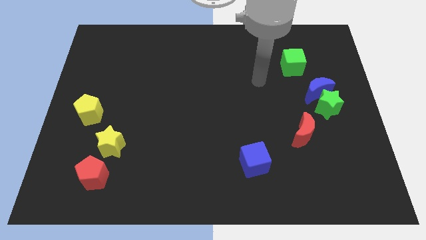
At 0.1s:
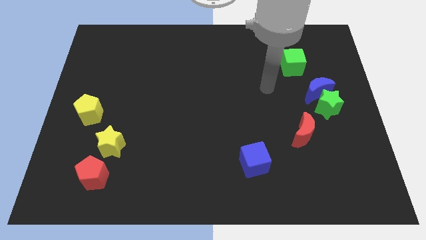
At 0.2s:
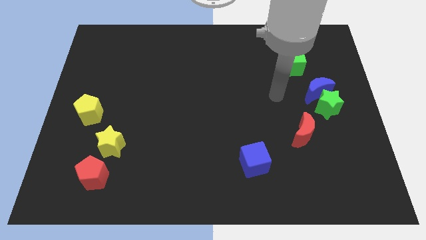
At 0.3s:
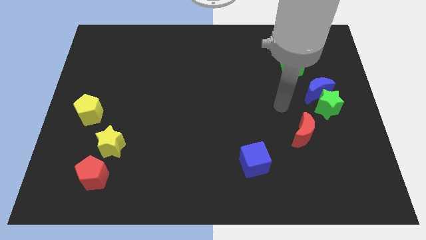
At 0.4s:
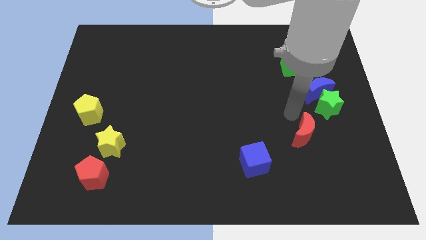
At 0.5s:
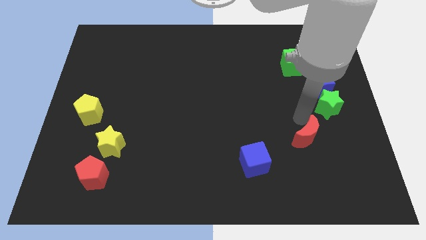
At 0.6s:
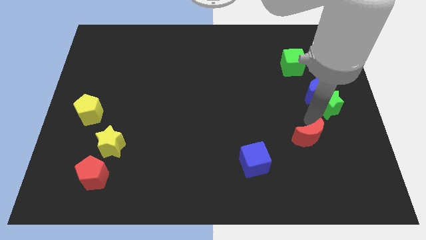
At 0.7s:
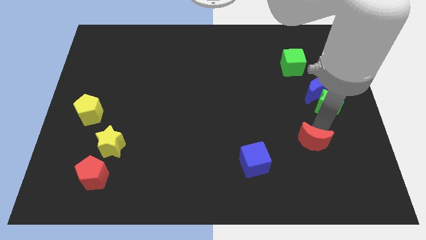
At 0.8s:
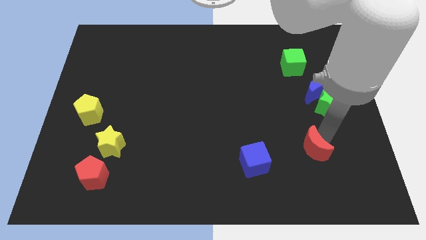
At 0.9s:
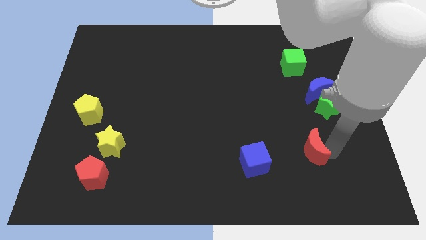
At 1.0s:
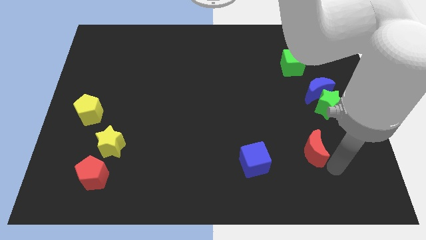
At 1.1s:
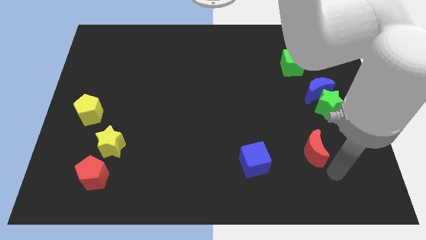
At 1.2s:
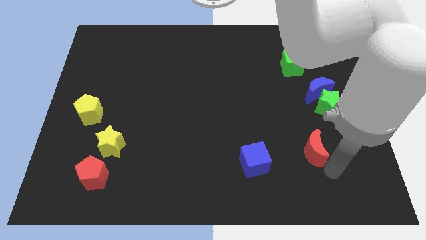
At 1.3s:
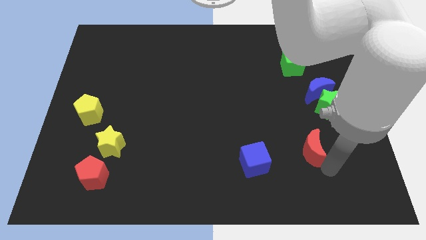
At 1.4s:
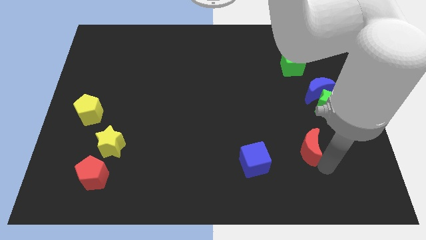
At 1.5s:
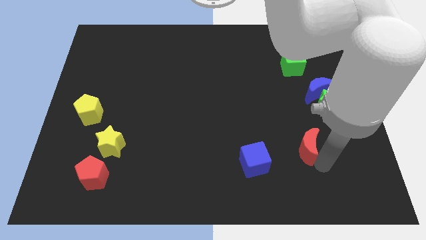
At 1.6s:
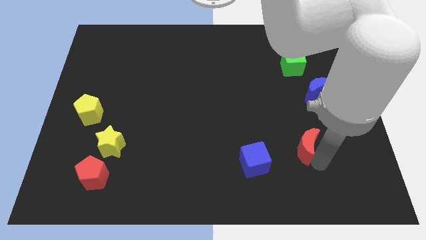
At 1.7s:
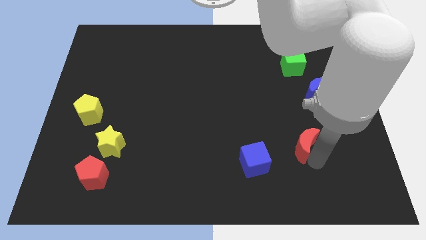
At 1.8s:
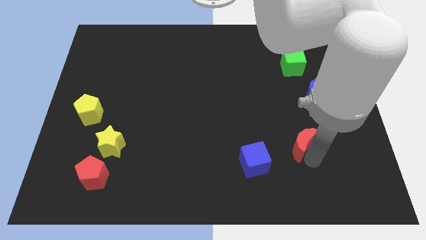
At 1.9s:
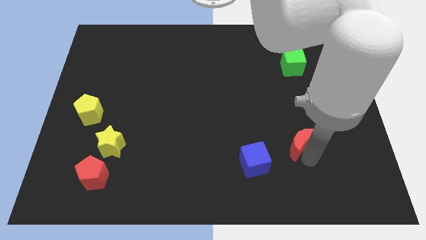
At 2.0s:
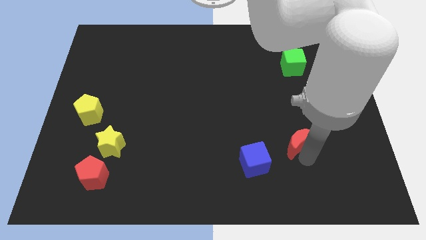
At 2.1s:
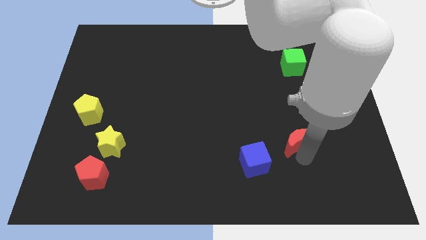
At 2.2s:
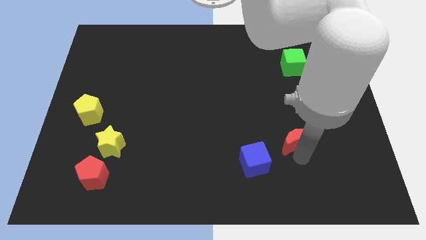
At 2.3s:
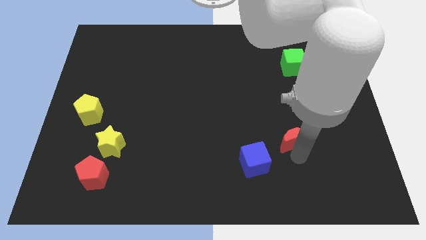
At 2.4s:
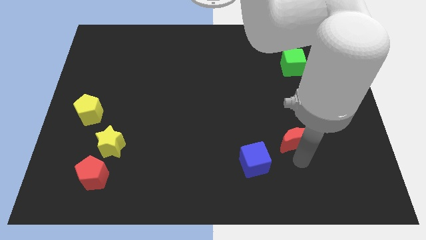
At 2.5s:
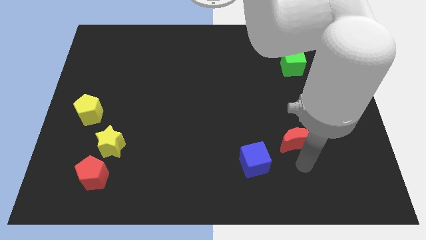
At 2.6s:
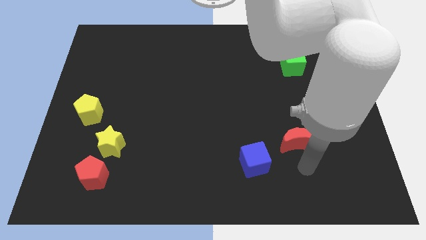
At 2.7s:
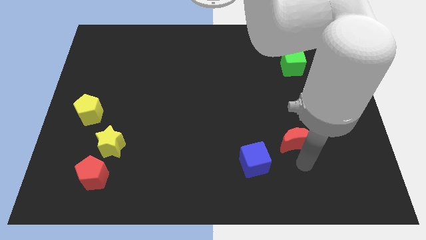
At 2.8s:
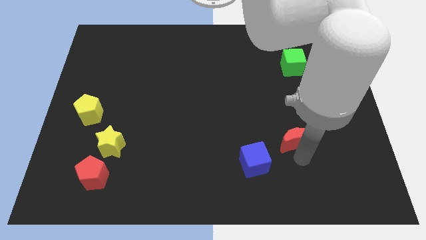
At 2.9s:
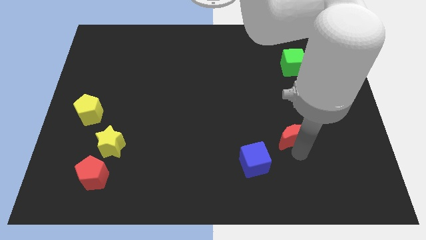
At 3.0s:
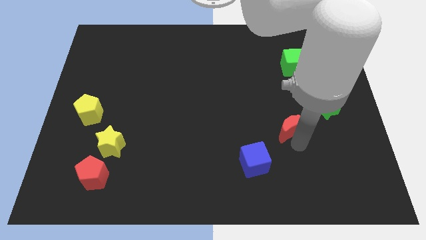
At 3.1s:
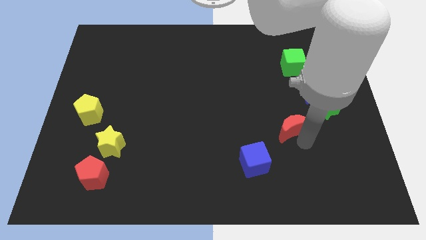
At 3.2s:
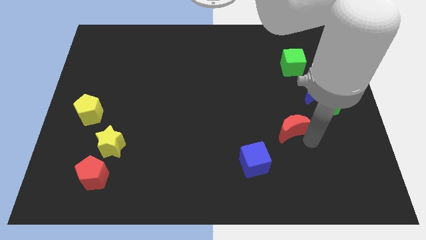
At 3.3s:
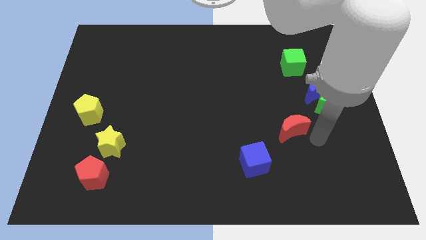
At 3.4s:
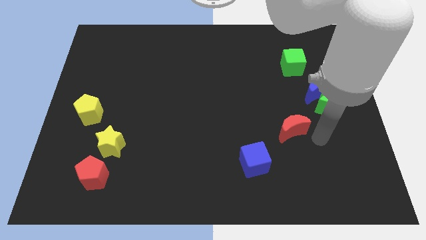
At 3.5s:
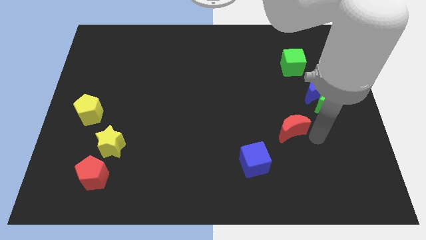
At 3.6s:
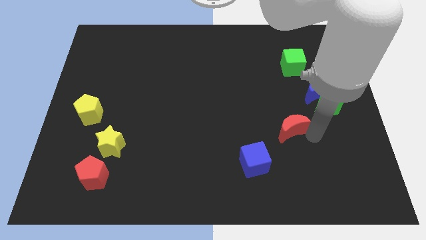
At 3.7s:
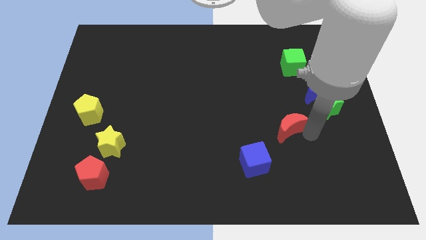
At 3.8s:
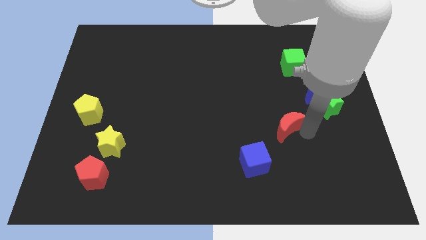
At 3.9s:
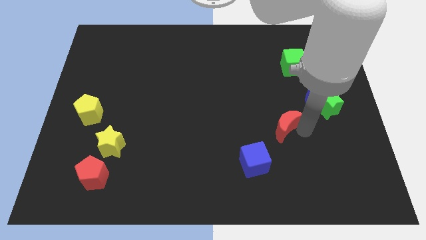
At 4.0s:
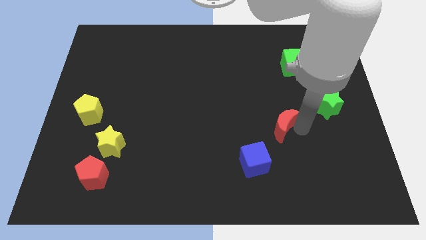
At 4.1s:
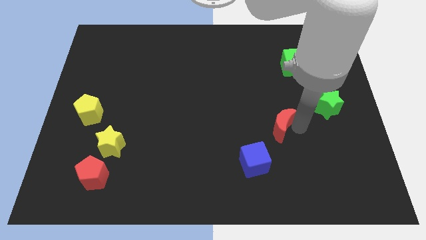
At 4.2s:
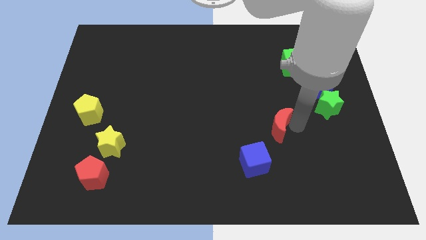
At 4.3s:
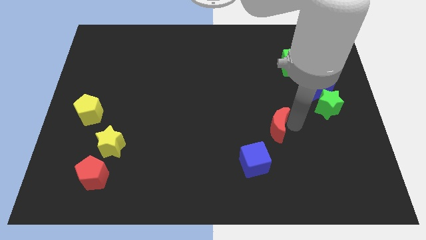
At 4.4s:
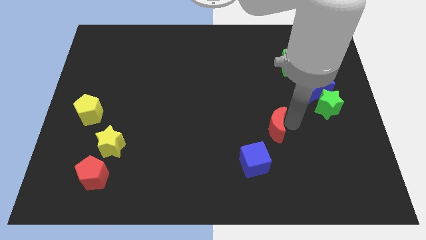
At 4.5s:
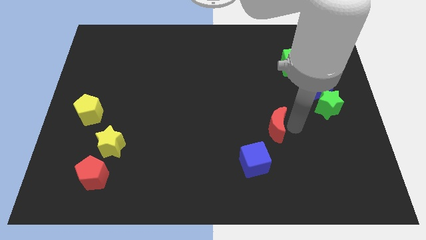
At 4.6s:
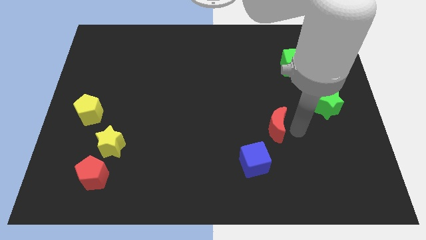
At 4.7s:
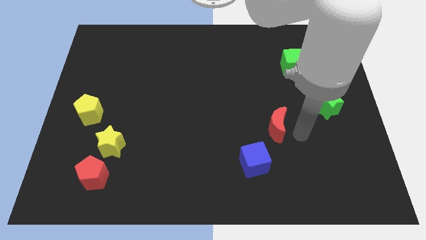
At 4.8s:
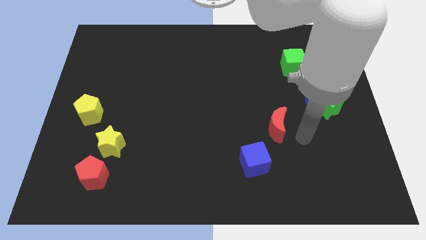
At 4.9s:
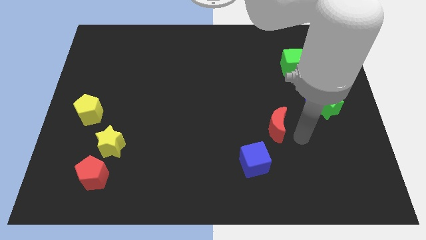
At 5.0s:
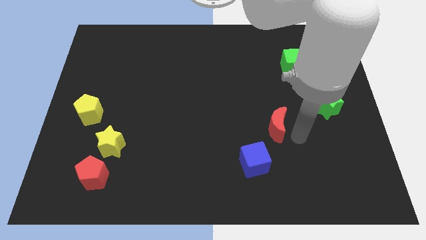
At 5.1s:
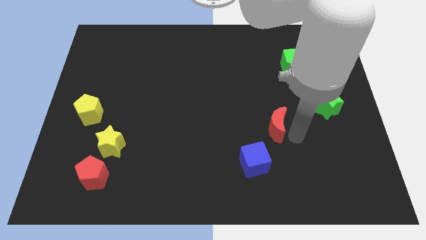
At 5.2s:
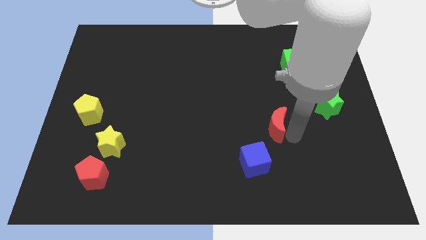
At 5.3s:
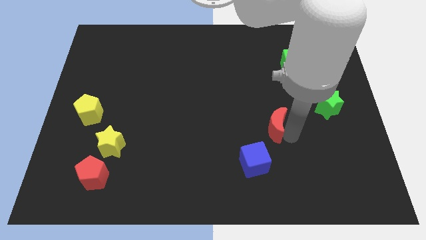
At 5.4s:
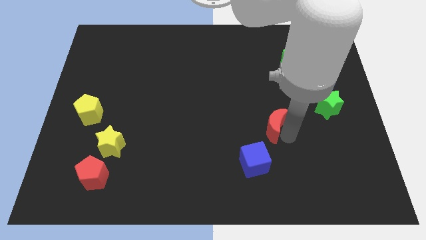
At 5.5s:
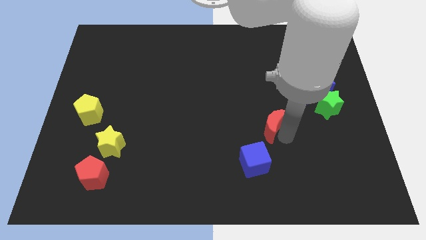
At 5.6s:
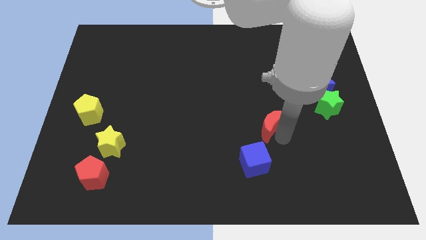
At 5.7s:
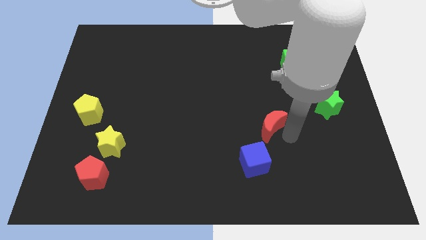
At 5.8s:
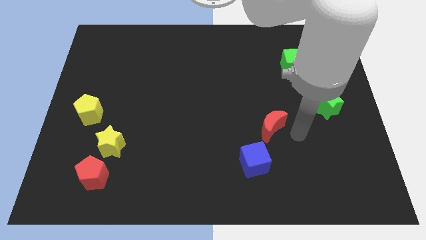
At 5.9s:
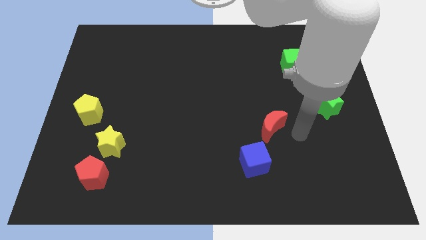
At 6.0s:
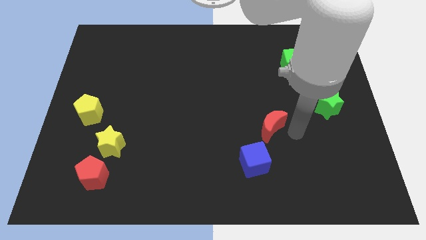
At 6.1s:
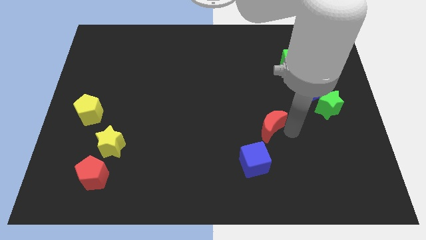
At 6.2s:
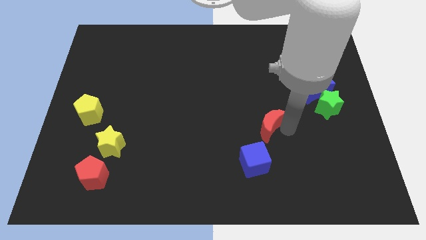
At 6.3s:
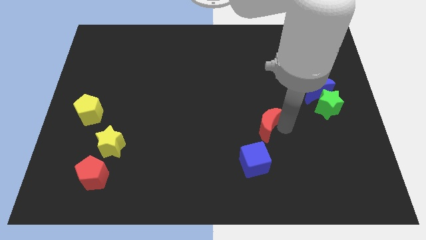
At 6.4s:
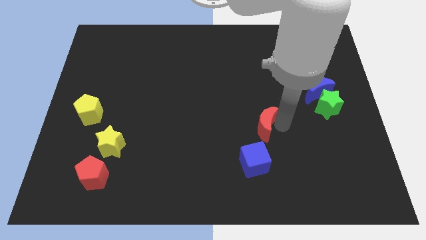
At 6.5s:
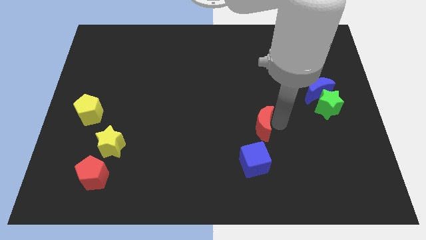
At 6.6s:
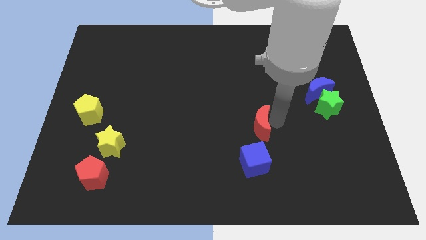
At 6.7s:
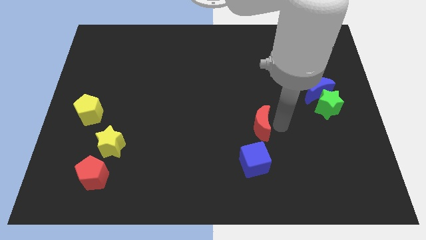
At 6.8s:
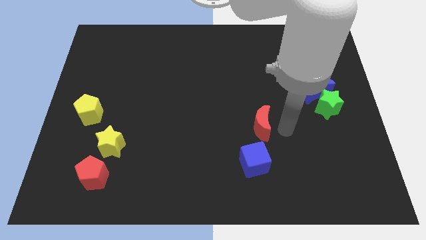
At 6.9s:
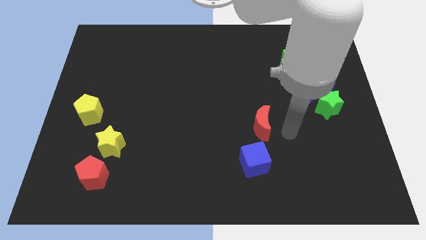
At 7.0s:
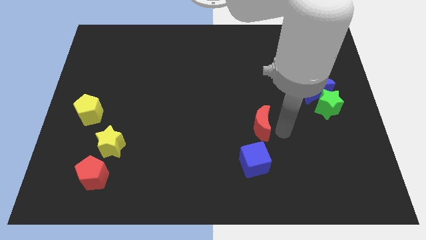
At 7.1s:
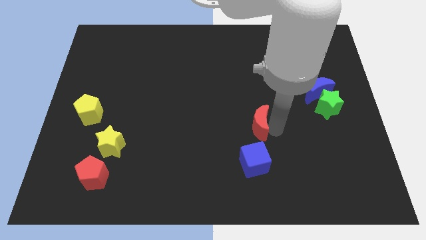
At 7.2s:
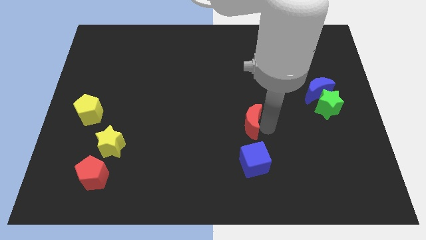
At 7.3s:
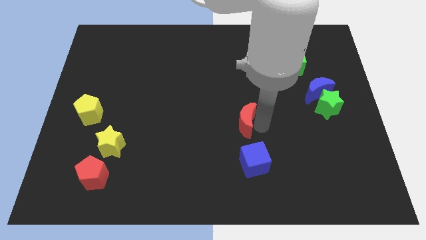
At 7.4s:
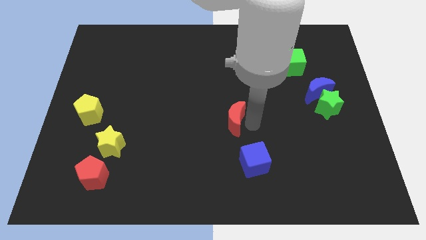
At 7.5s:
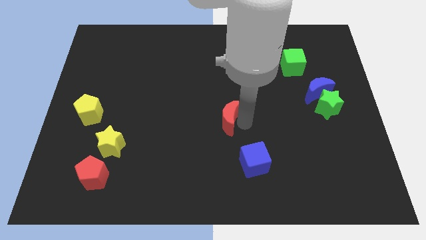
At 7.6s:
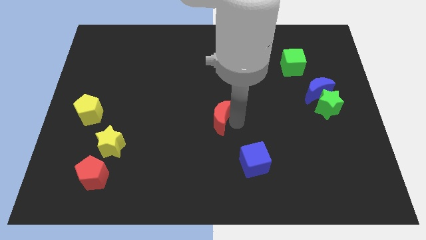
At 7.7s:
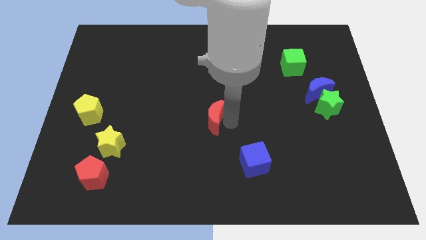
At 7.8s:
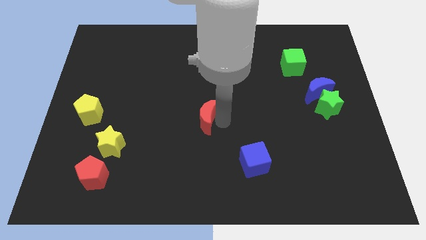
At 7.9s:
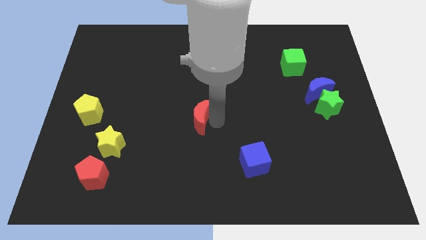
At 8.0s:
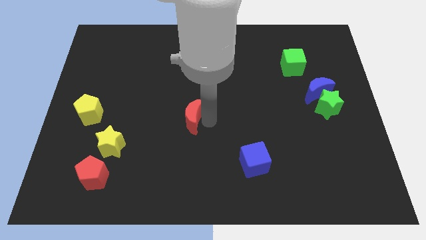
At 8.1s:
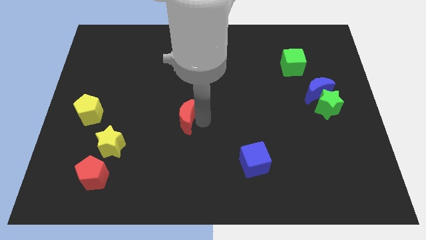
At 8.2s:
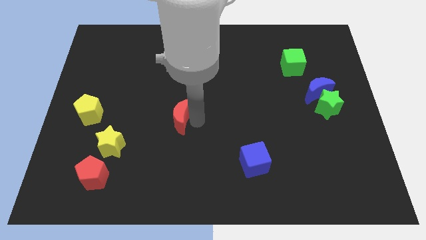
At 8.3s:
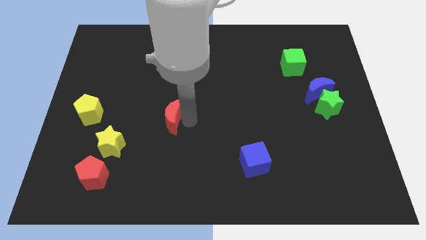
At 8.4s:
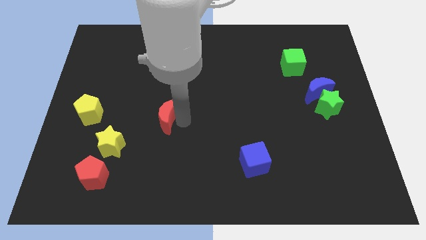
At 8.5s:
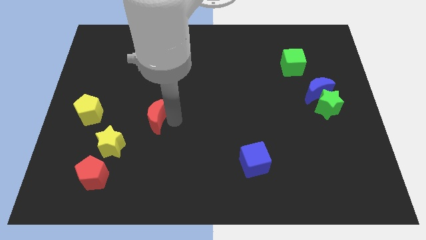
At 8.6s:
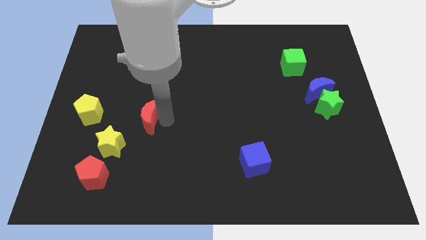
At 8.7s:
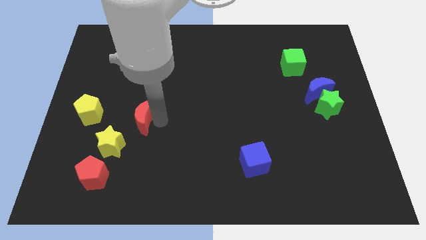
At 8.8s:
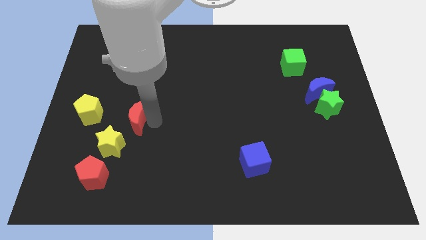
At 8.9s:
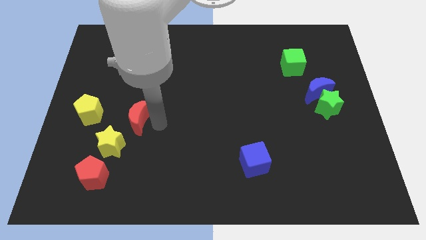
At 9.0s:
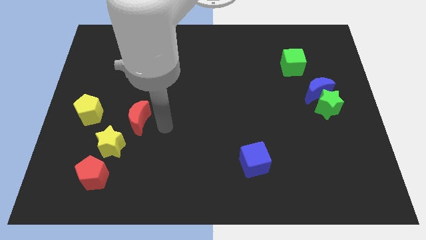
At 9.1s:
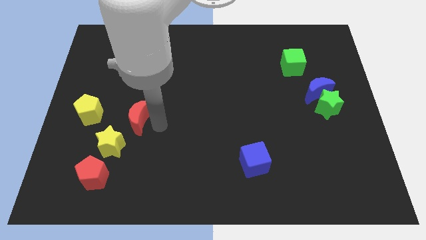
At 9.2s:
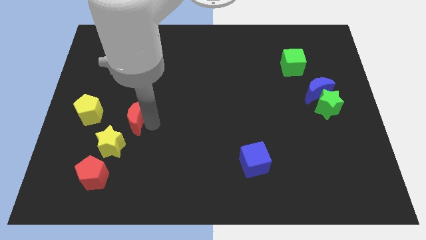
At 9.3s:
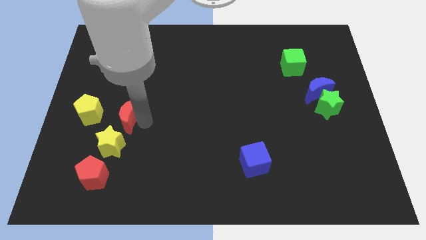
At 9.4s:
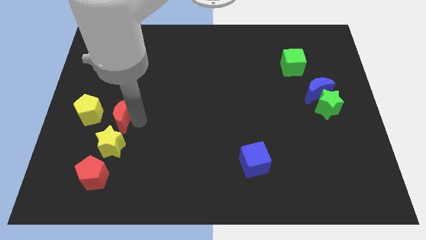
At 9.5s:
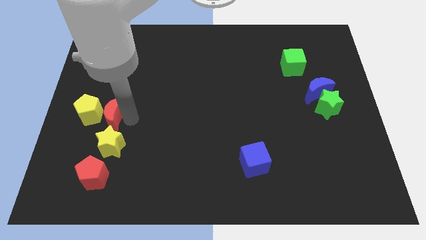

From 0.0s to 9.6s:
slide the red moon to the yellow pentagon
